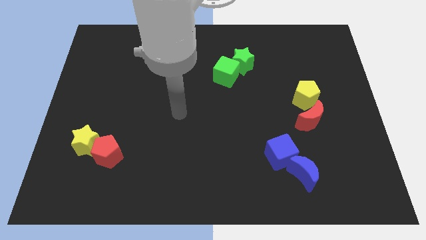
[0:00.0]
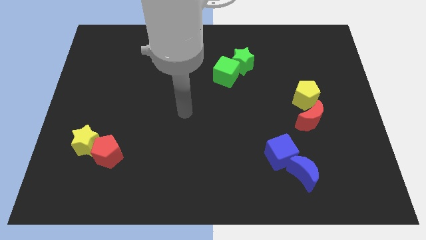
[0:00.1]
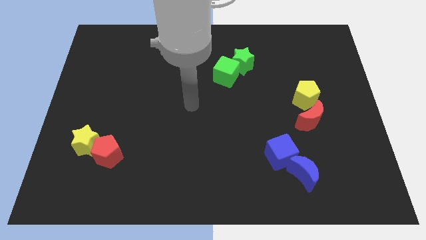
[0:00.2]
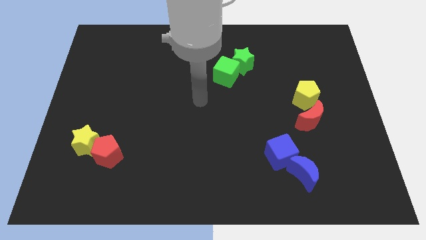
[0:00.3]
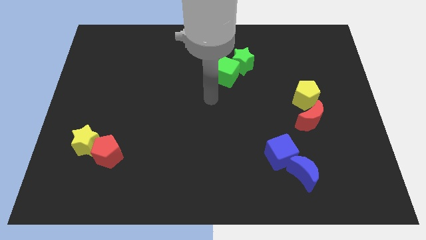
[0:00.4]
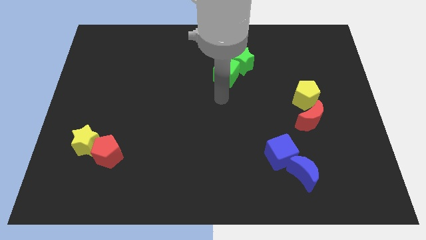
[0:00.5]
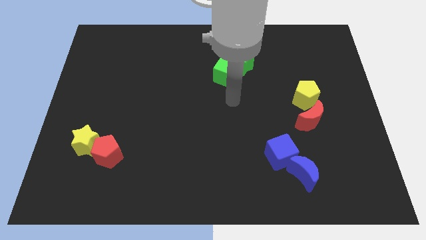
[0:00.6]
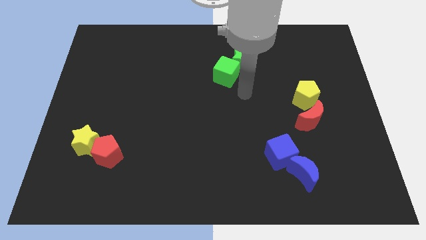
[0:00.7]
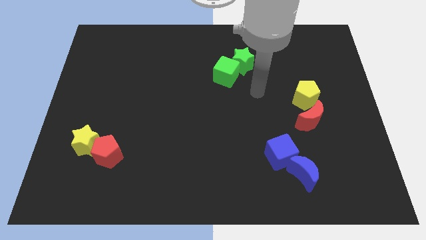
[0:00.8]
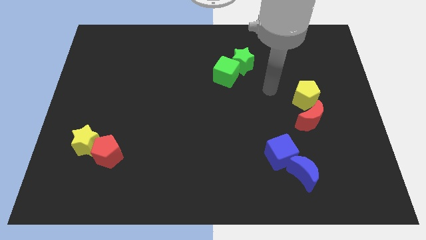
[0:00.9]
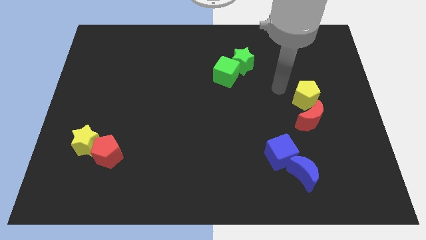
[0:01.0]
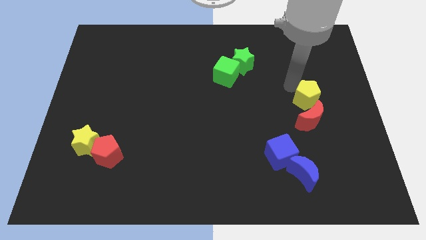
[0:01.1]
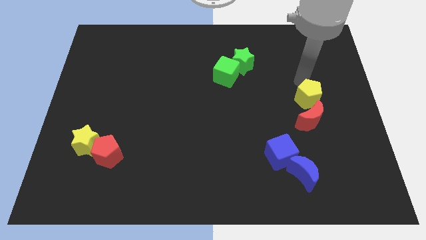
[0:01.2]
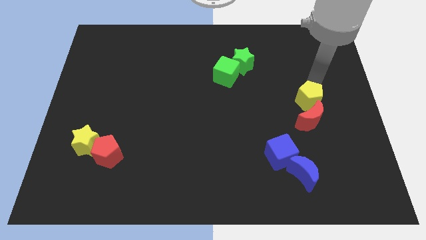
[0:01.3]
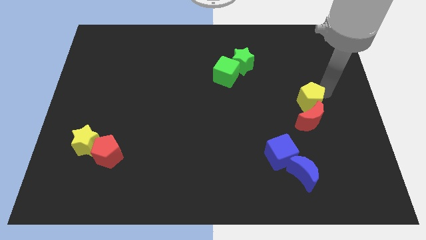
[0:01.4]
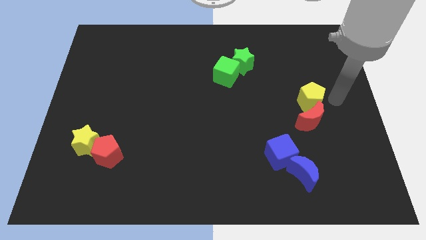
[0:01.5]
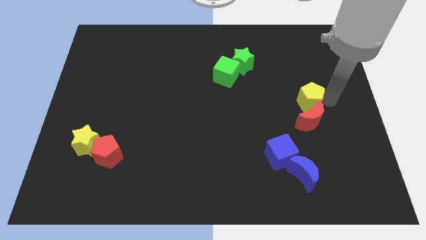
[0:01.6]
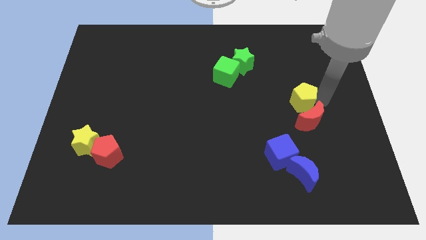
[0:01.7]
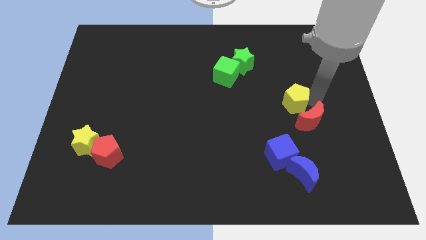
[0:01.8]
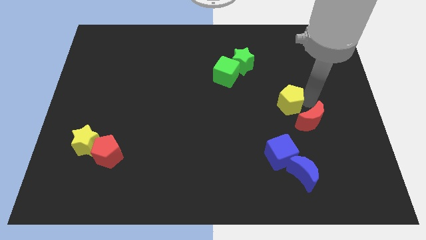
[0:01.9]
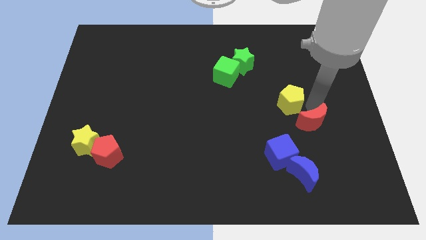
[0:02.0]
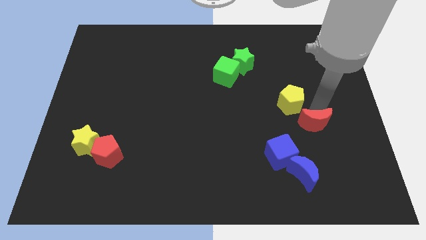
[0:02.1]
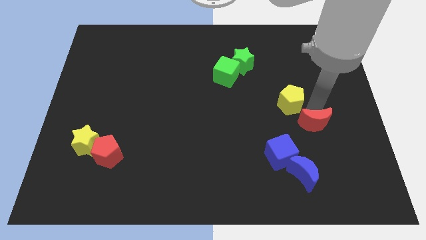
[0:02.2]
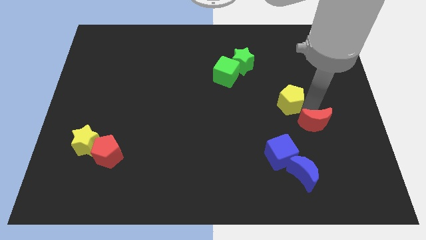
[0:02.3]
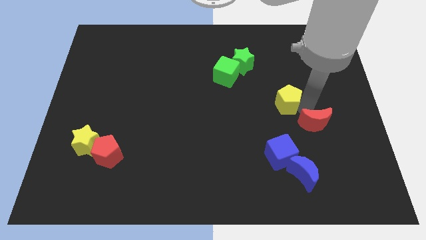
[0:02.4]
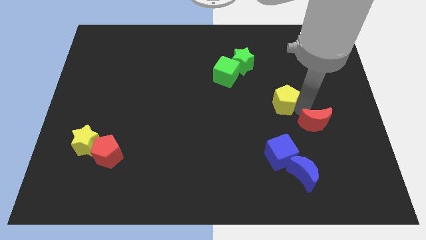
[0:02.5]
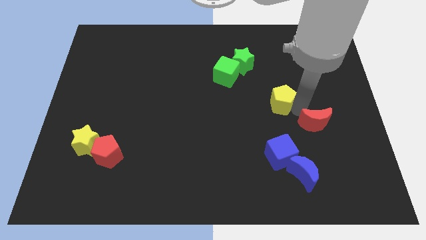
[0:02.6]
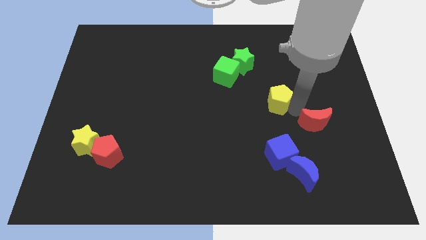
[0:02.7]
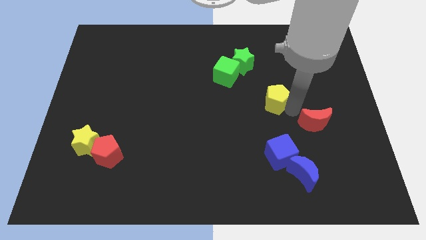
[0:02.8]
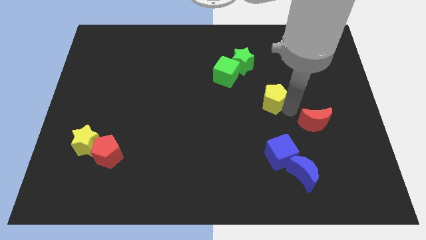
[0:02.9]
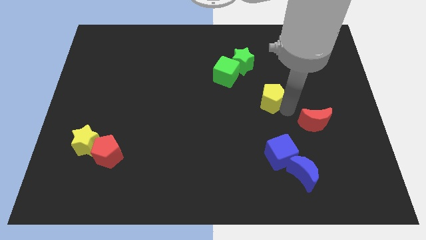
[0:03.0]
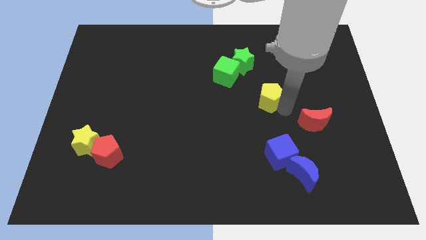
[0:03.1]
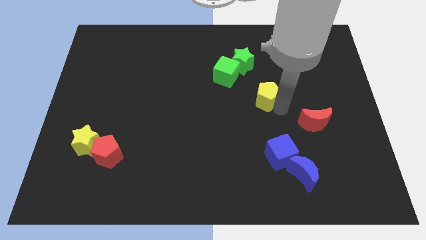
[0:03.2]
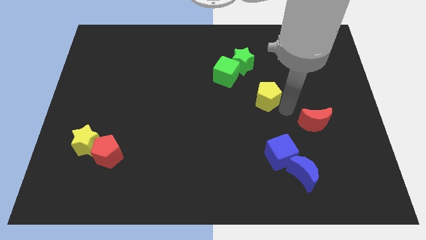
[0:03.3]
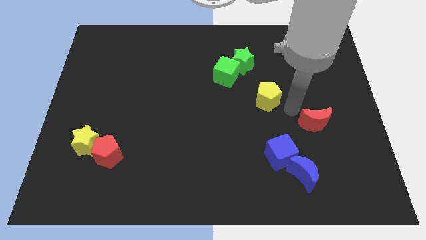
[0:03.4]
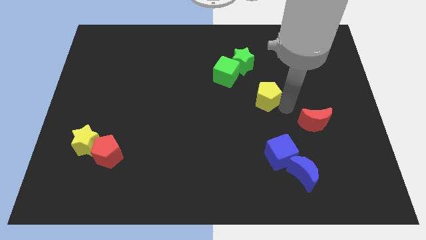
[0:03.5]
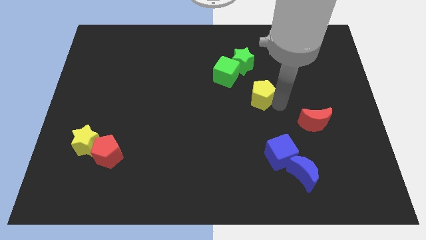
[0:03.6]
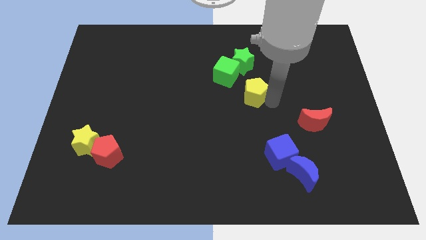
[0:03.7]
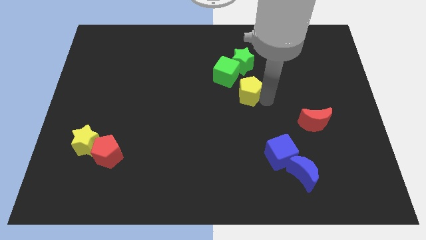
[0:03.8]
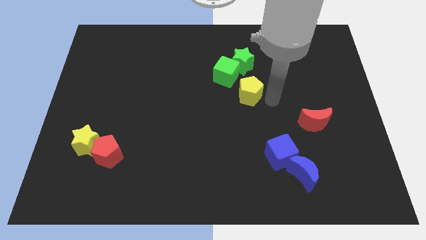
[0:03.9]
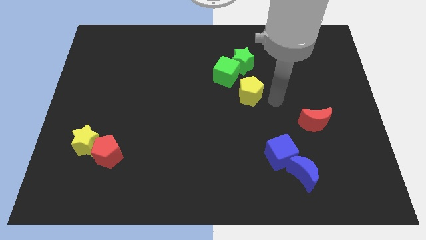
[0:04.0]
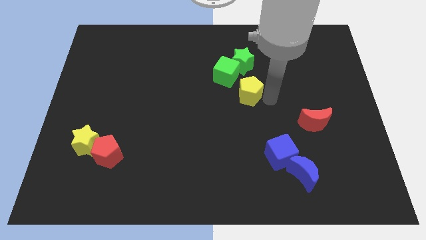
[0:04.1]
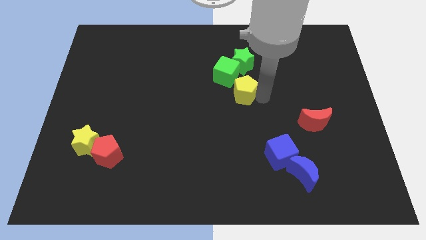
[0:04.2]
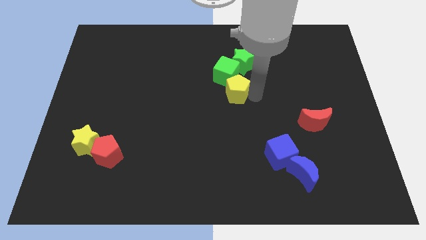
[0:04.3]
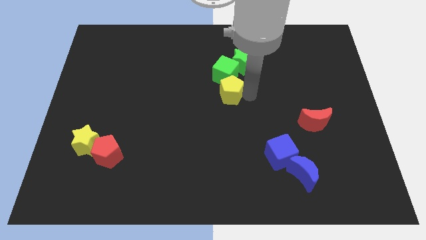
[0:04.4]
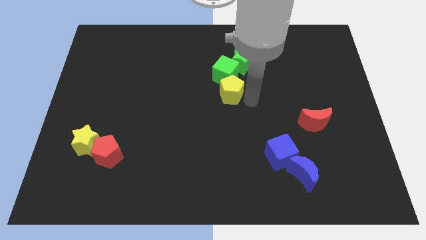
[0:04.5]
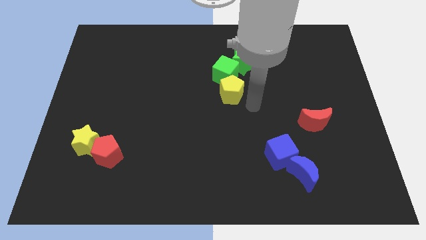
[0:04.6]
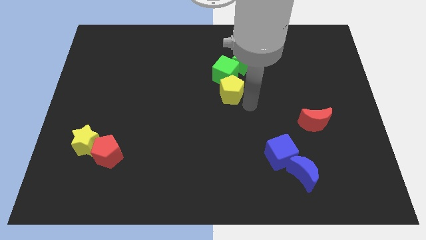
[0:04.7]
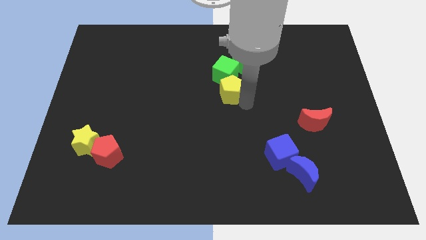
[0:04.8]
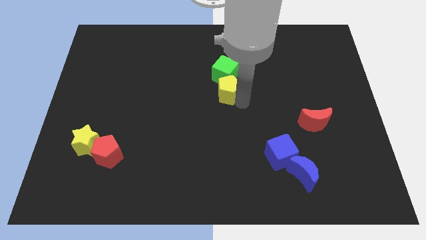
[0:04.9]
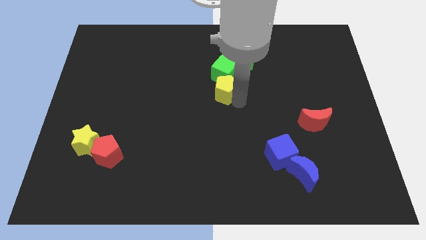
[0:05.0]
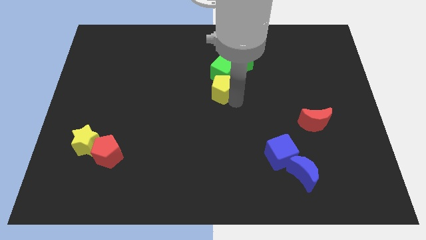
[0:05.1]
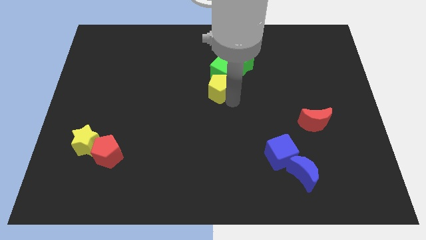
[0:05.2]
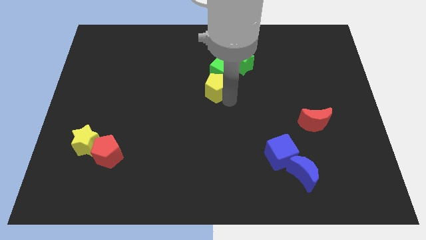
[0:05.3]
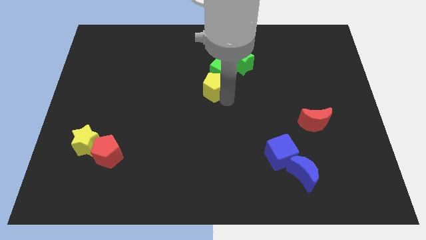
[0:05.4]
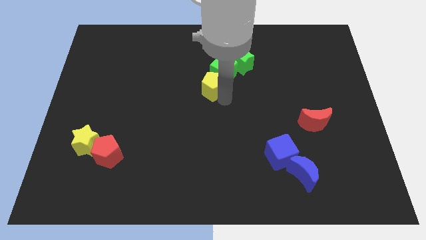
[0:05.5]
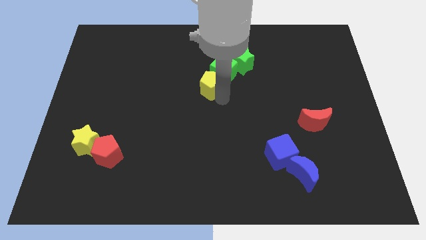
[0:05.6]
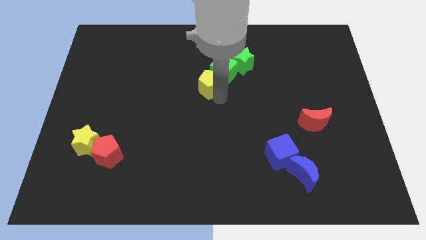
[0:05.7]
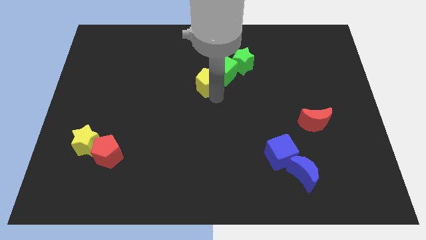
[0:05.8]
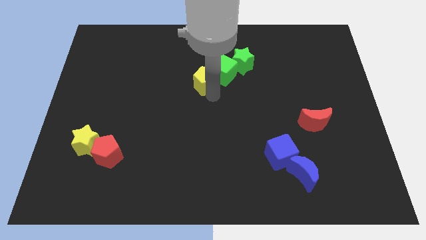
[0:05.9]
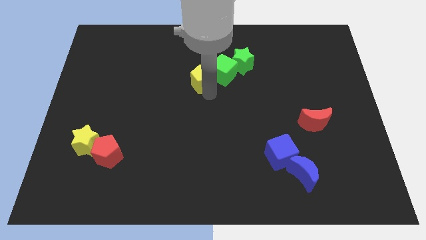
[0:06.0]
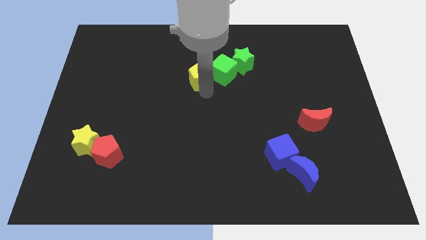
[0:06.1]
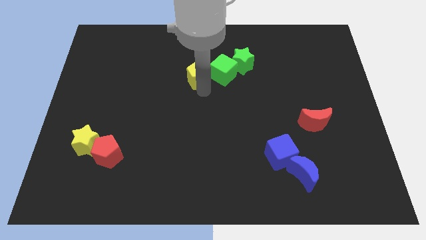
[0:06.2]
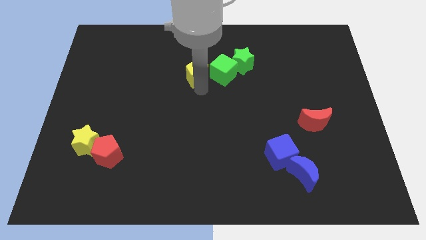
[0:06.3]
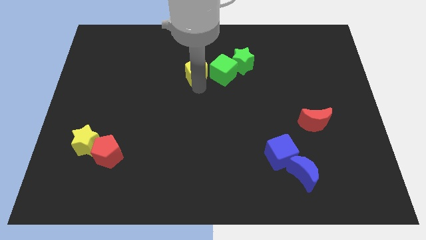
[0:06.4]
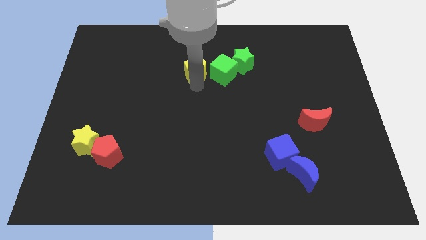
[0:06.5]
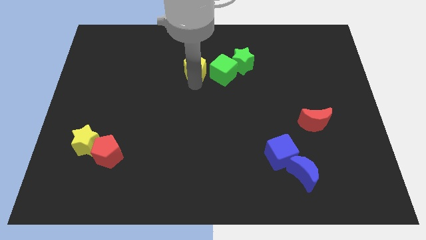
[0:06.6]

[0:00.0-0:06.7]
put the yellow pentagon to the top left of the green cube

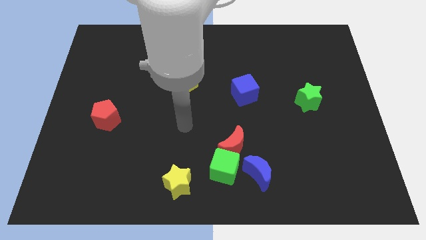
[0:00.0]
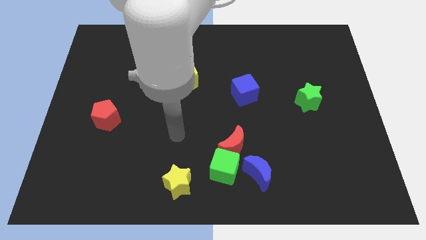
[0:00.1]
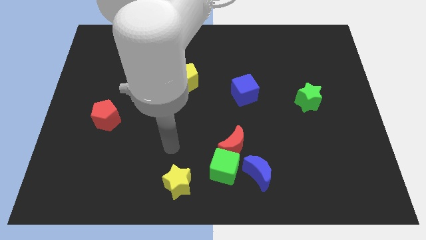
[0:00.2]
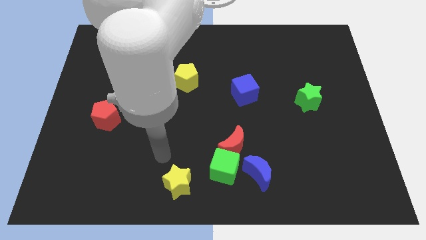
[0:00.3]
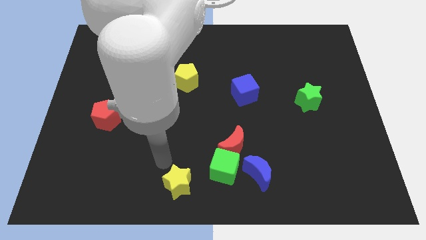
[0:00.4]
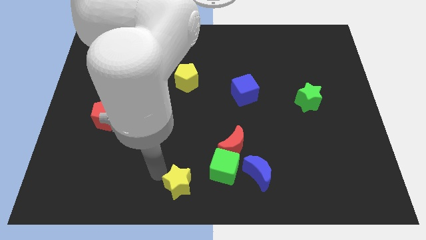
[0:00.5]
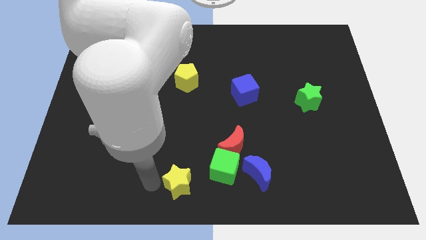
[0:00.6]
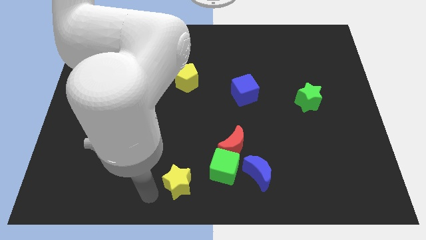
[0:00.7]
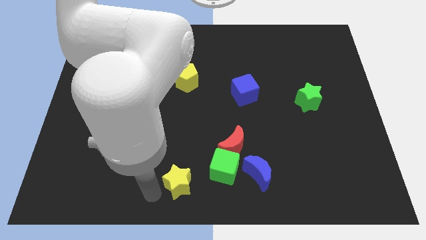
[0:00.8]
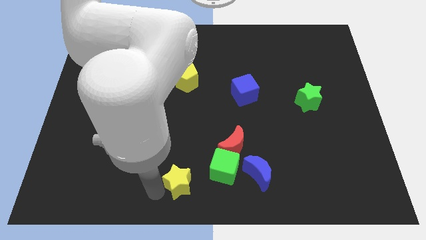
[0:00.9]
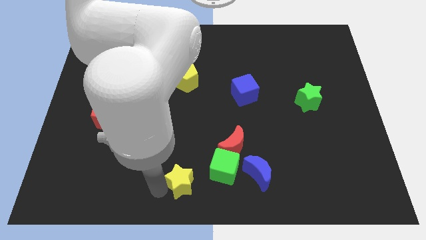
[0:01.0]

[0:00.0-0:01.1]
slide the yellow star left of the blue moon
